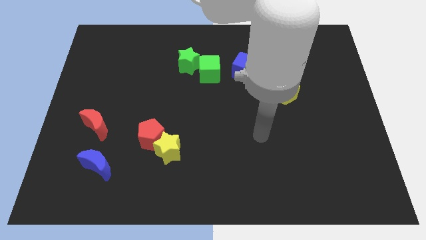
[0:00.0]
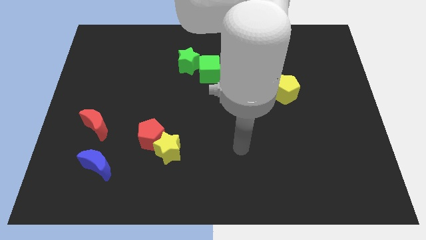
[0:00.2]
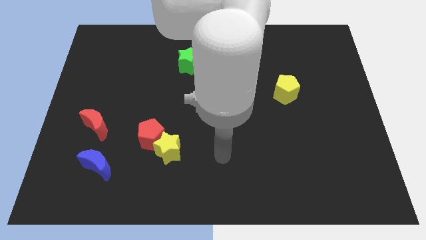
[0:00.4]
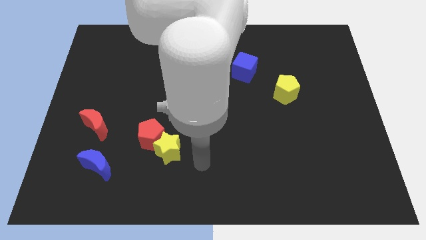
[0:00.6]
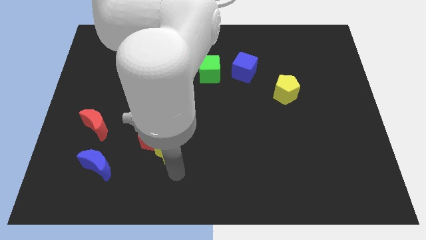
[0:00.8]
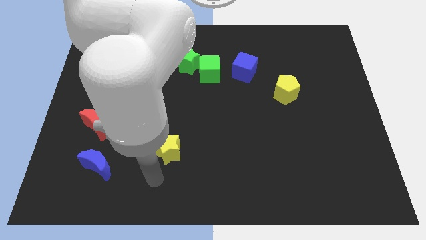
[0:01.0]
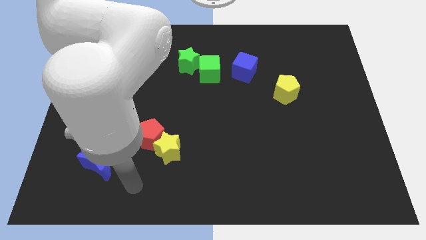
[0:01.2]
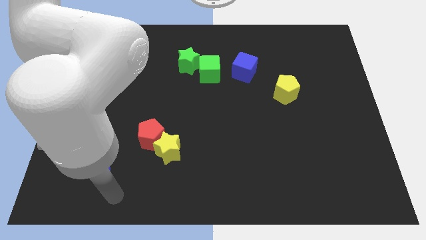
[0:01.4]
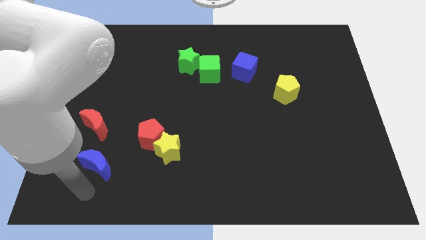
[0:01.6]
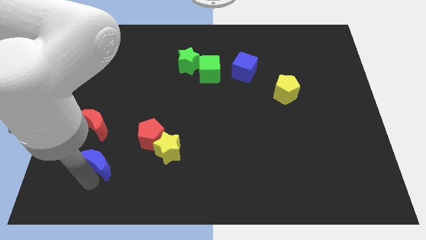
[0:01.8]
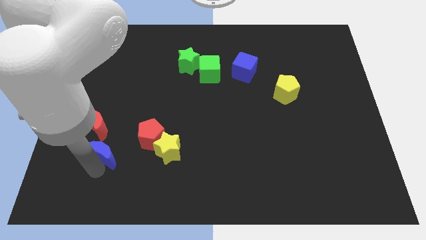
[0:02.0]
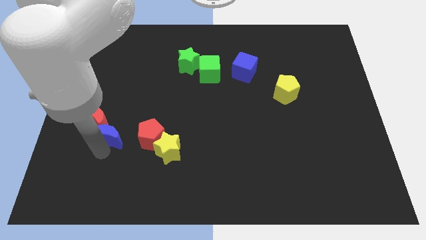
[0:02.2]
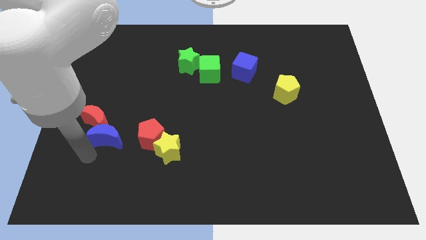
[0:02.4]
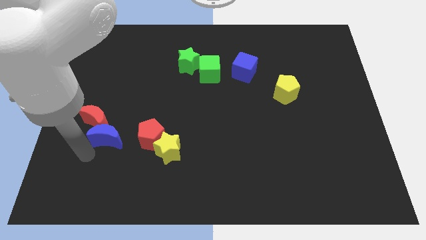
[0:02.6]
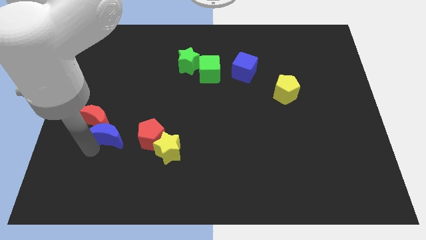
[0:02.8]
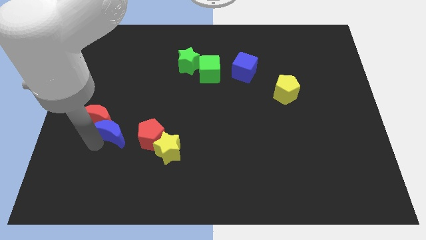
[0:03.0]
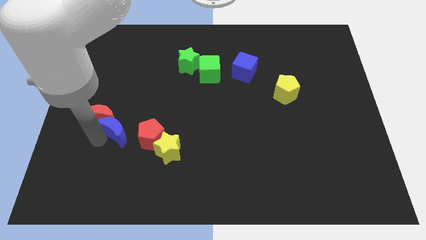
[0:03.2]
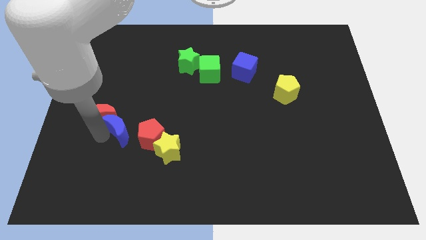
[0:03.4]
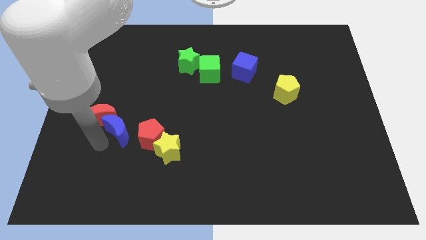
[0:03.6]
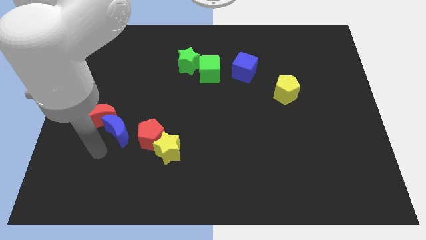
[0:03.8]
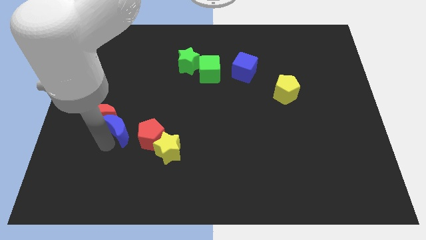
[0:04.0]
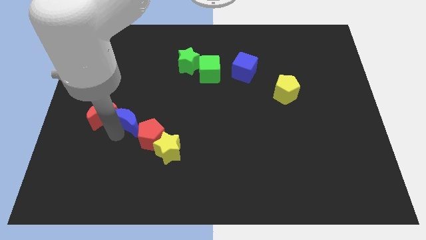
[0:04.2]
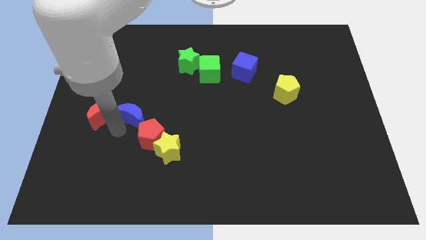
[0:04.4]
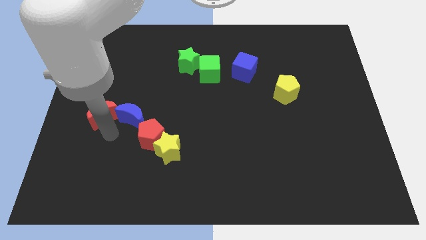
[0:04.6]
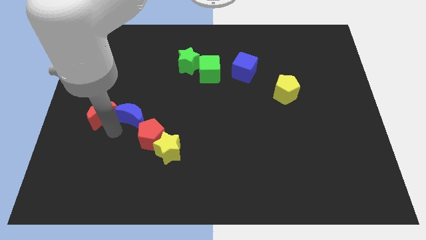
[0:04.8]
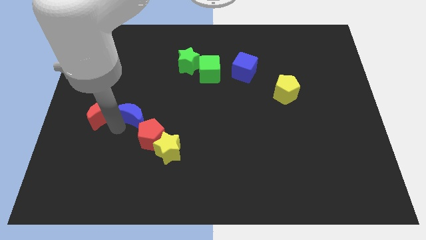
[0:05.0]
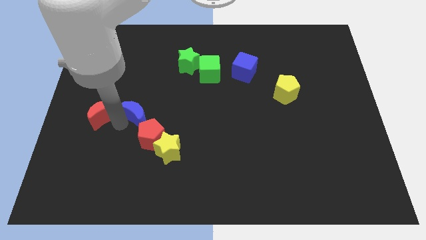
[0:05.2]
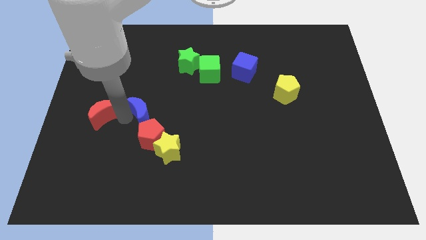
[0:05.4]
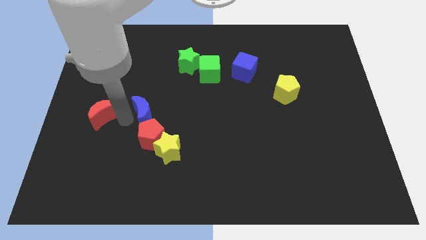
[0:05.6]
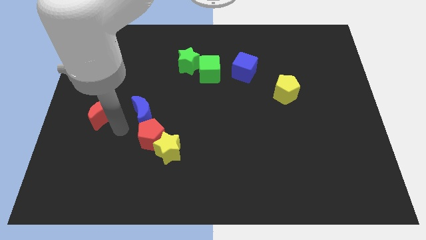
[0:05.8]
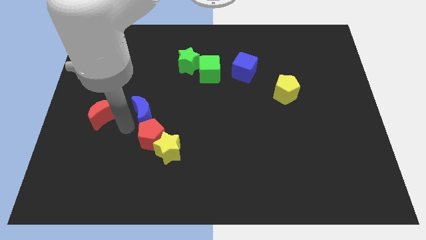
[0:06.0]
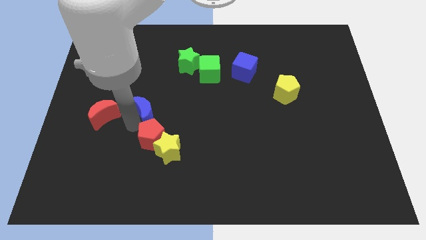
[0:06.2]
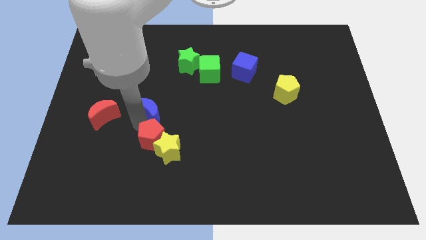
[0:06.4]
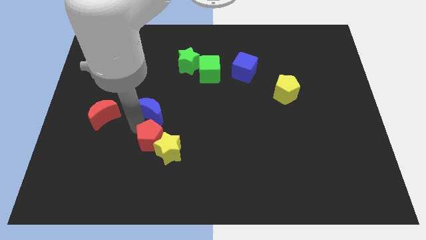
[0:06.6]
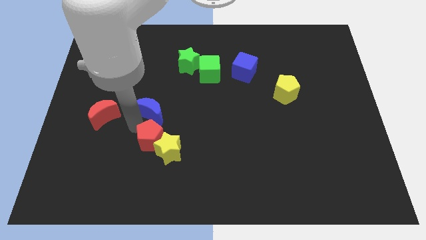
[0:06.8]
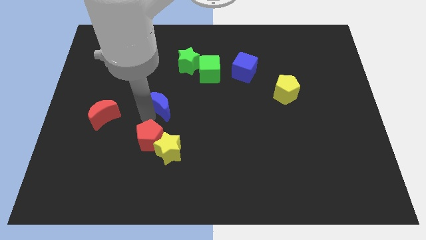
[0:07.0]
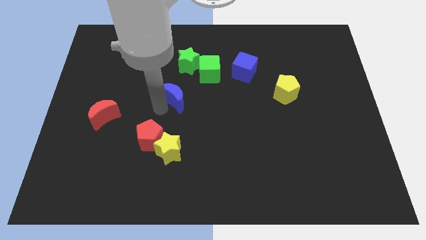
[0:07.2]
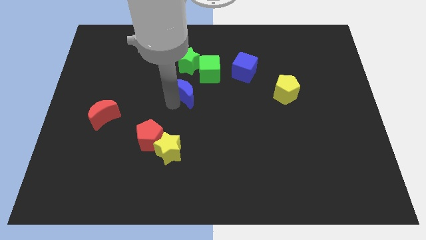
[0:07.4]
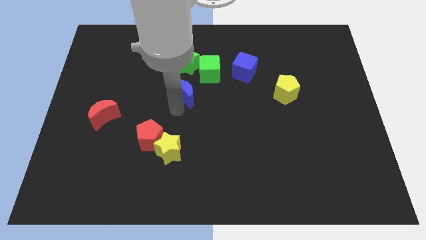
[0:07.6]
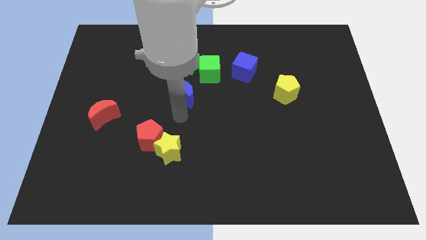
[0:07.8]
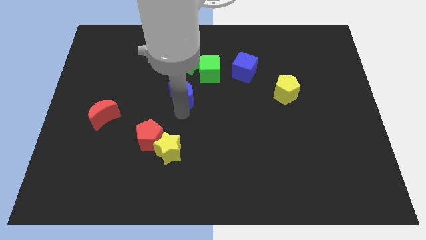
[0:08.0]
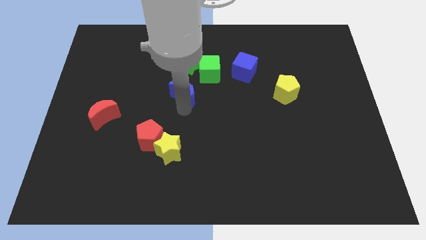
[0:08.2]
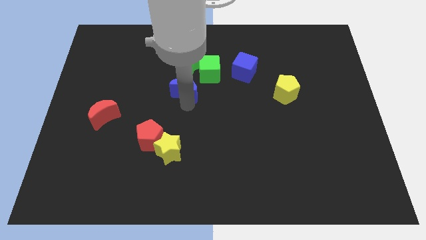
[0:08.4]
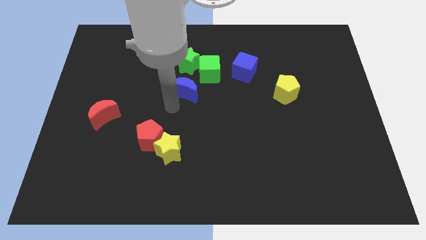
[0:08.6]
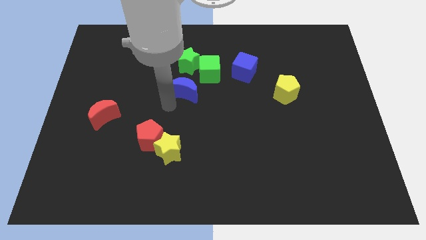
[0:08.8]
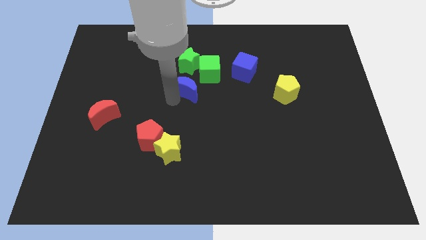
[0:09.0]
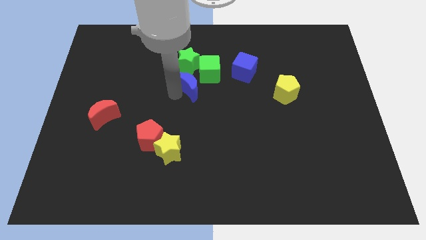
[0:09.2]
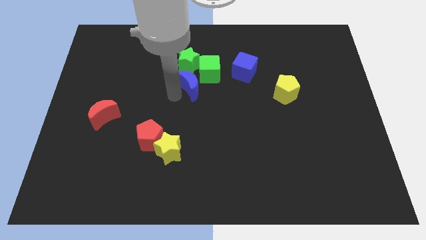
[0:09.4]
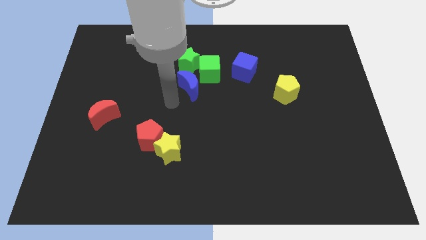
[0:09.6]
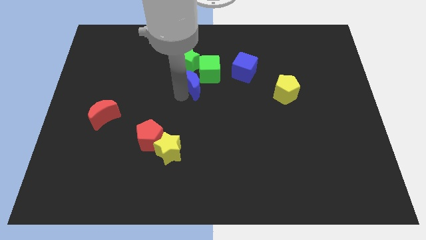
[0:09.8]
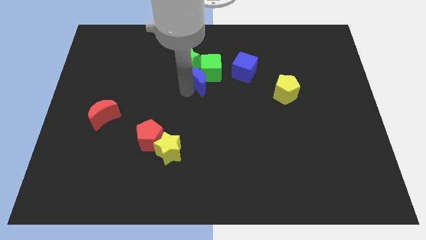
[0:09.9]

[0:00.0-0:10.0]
put the blue moon to the green cube

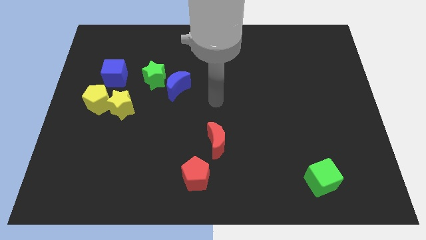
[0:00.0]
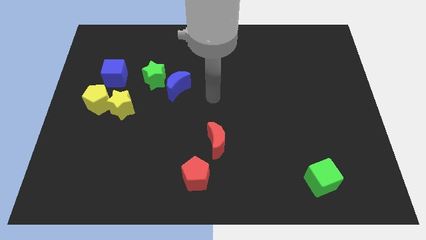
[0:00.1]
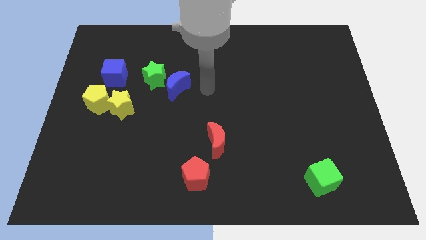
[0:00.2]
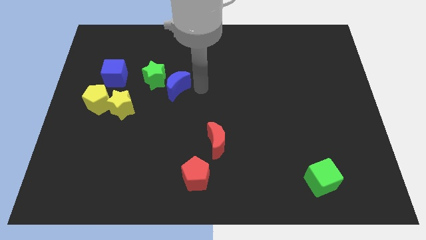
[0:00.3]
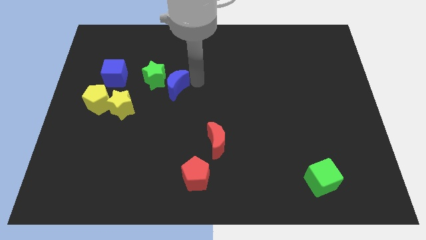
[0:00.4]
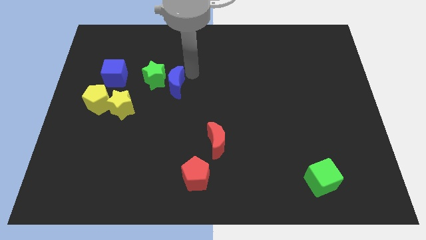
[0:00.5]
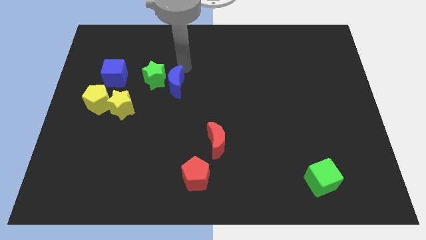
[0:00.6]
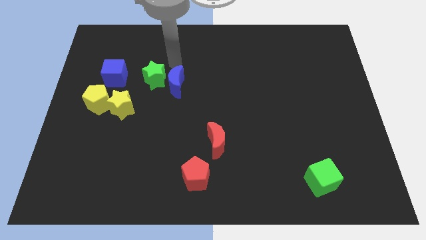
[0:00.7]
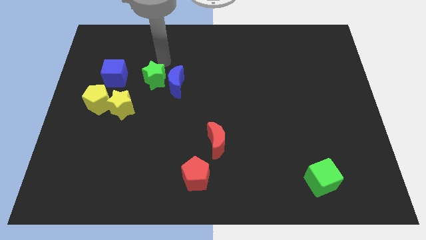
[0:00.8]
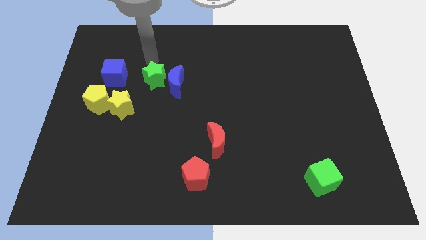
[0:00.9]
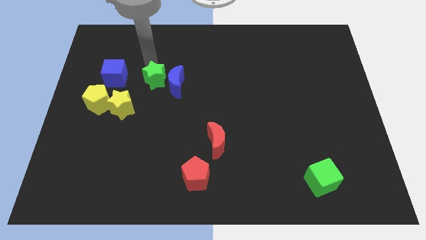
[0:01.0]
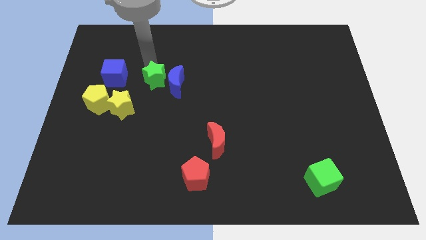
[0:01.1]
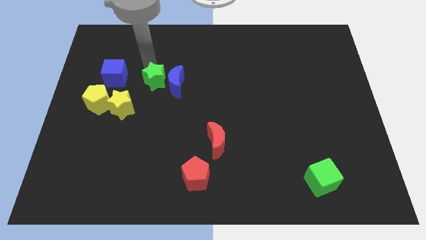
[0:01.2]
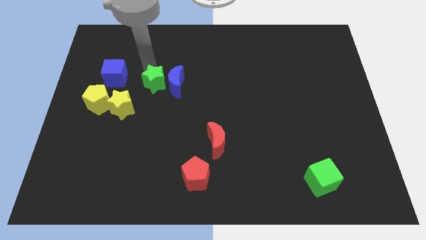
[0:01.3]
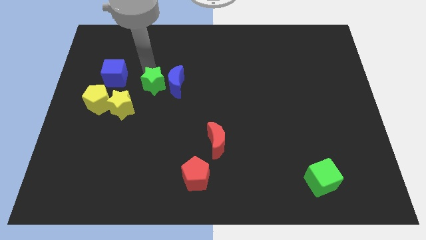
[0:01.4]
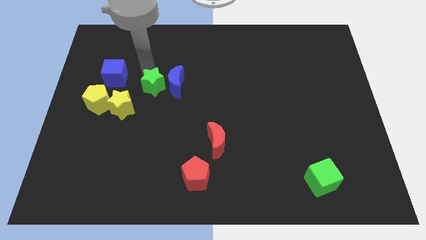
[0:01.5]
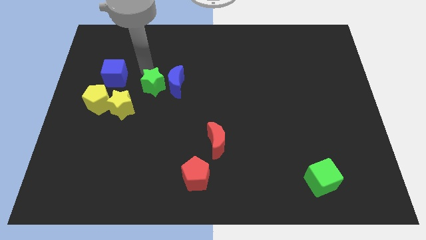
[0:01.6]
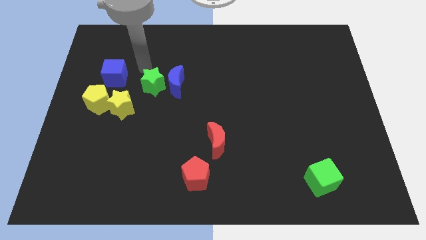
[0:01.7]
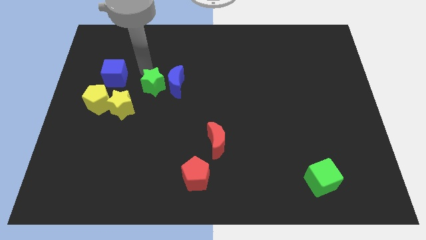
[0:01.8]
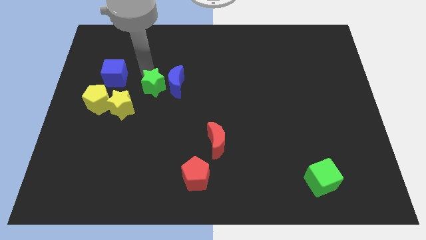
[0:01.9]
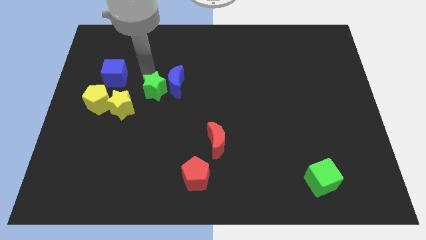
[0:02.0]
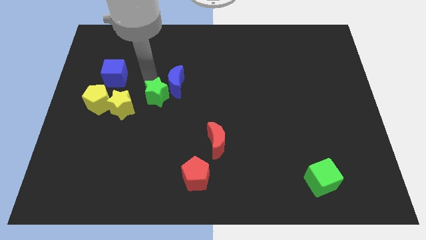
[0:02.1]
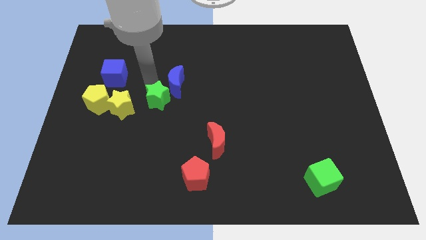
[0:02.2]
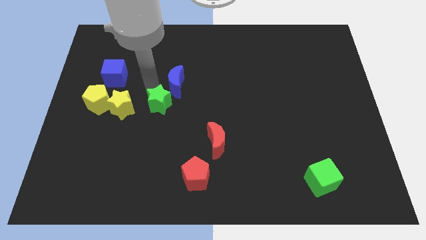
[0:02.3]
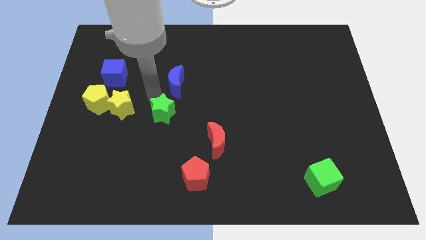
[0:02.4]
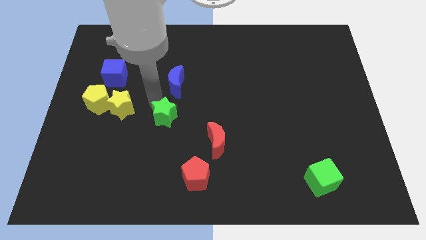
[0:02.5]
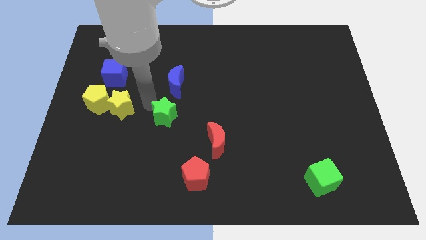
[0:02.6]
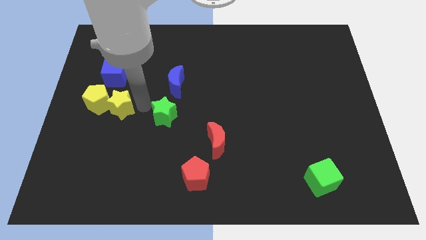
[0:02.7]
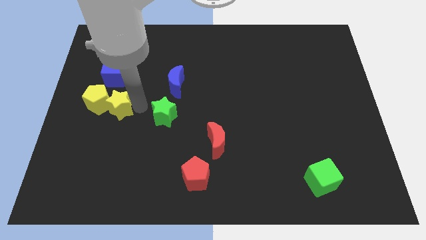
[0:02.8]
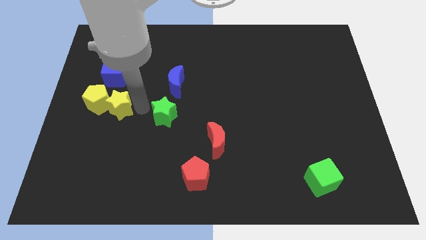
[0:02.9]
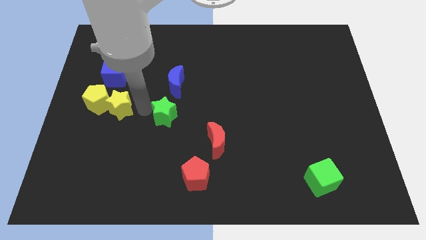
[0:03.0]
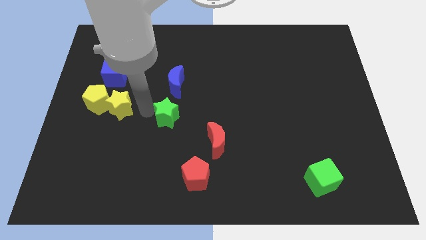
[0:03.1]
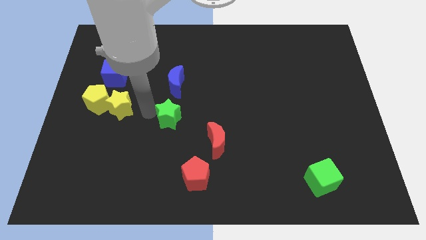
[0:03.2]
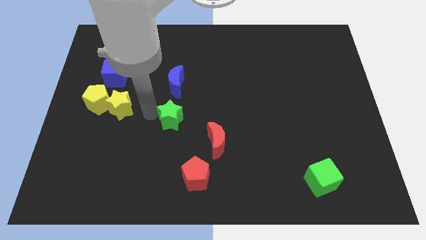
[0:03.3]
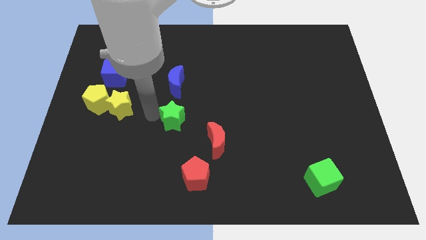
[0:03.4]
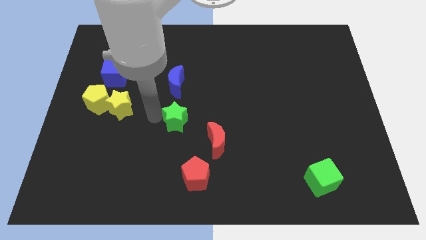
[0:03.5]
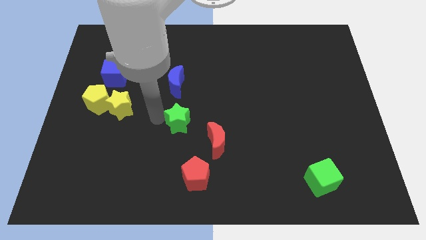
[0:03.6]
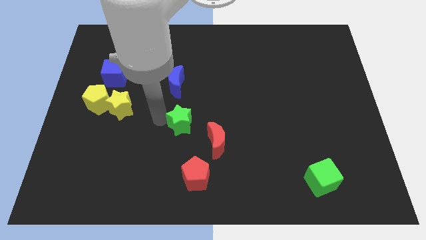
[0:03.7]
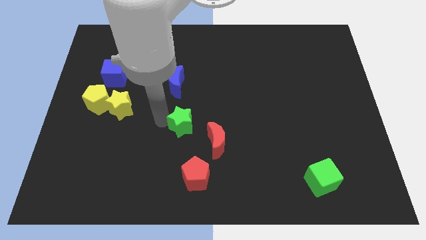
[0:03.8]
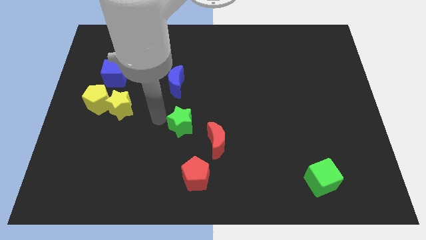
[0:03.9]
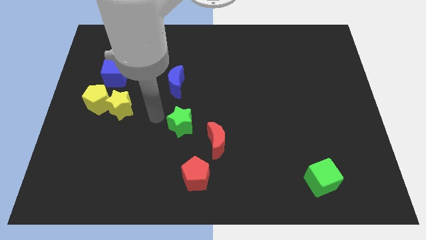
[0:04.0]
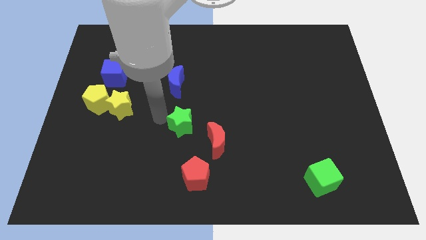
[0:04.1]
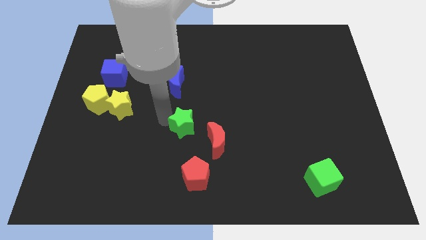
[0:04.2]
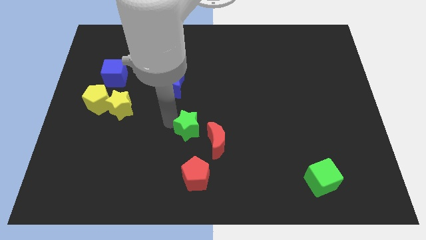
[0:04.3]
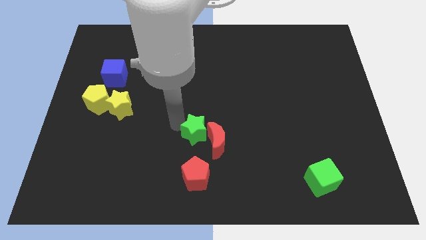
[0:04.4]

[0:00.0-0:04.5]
move the green star to the red moon
